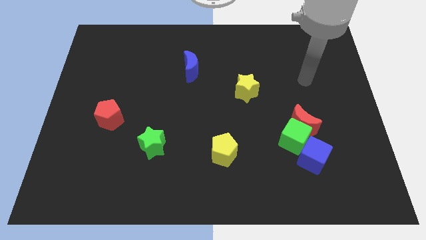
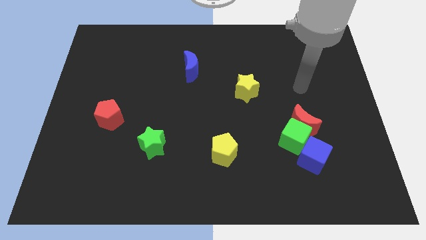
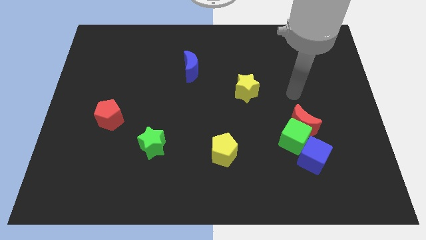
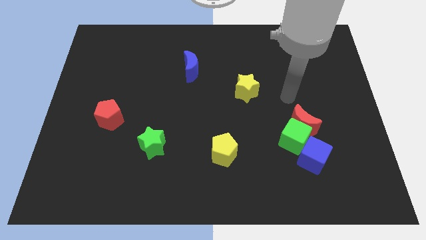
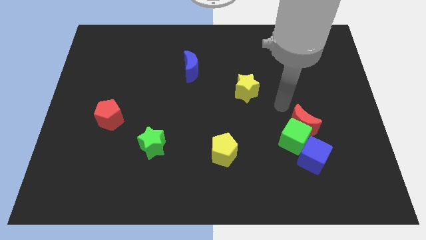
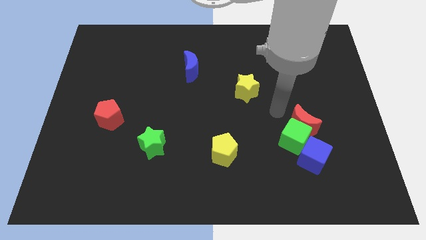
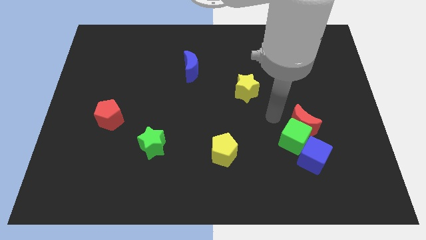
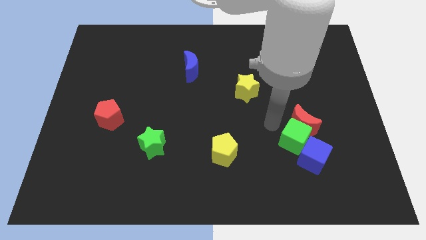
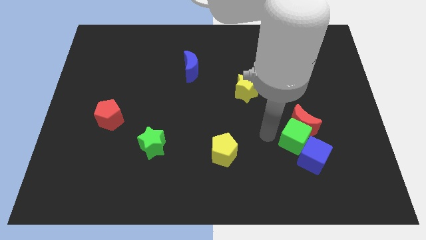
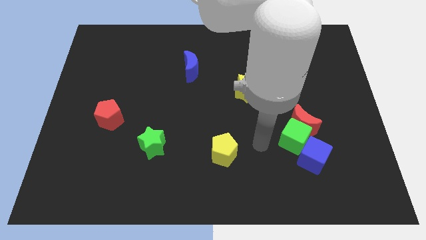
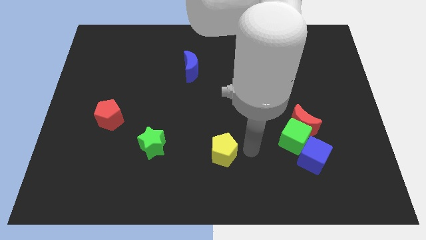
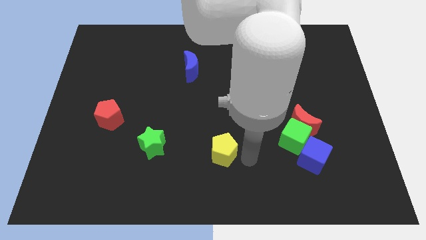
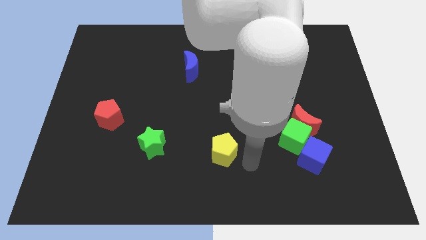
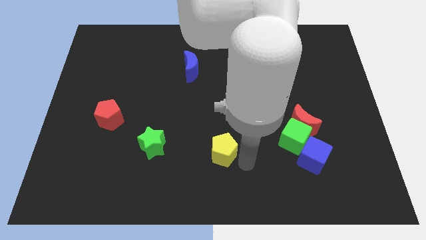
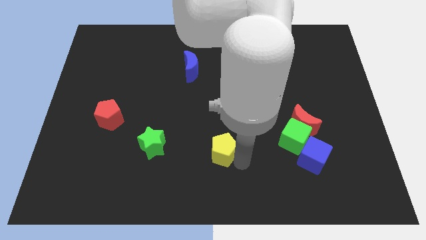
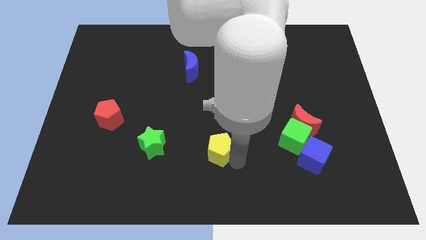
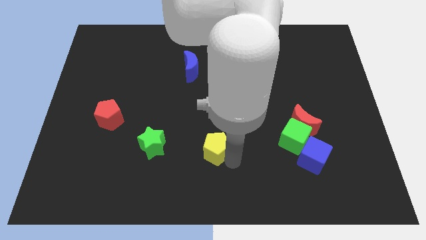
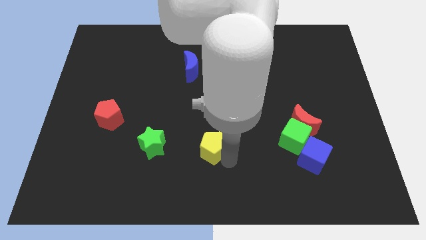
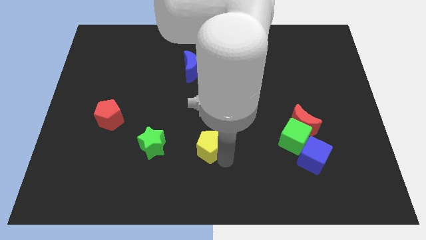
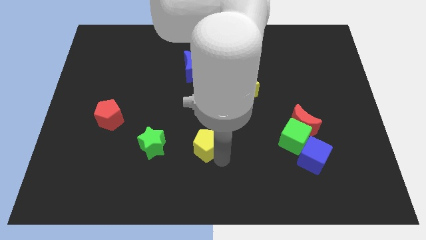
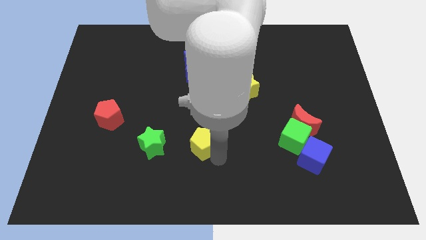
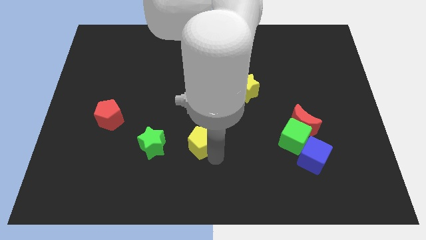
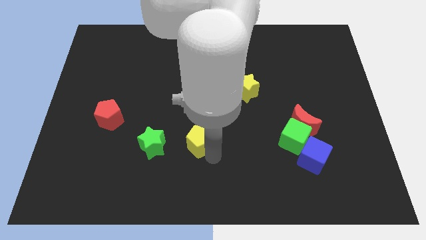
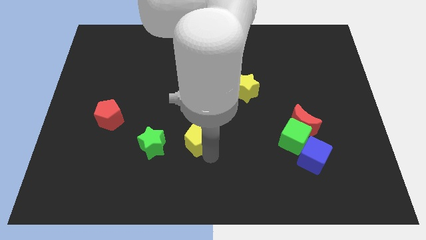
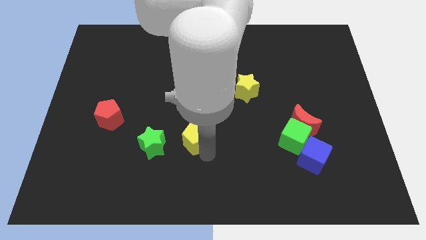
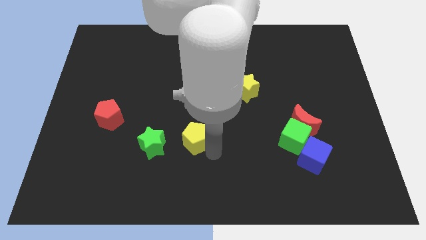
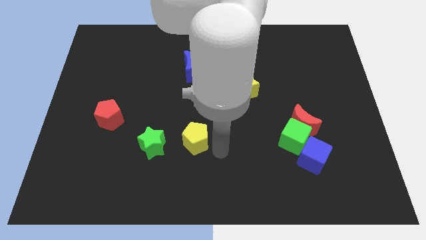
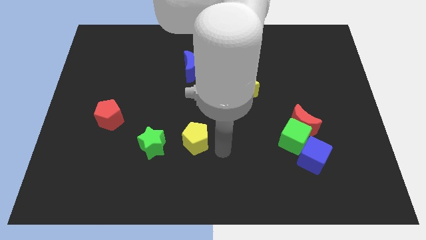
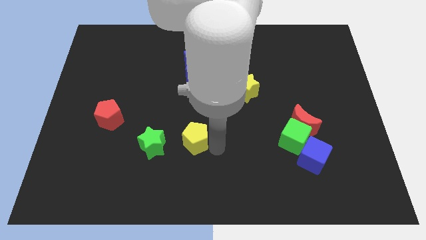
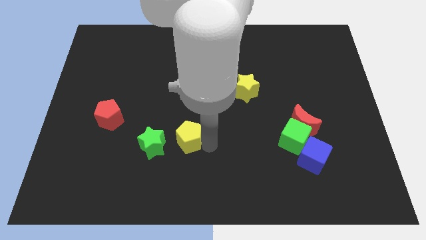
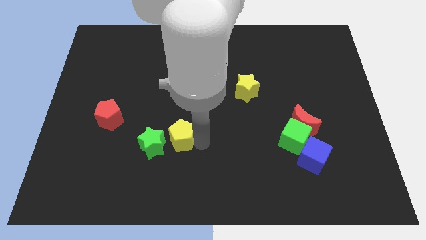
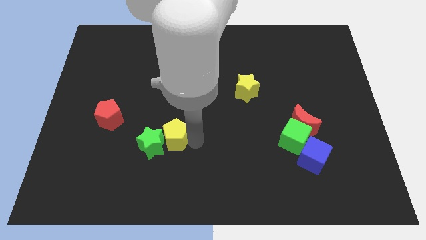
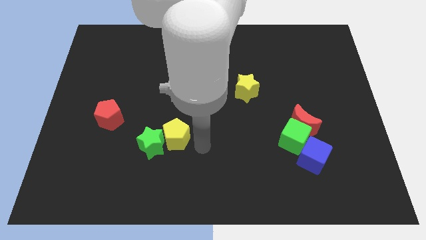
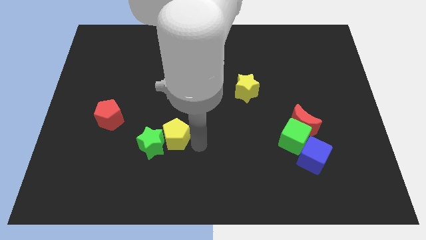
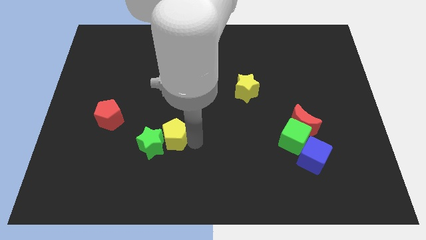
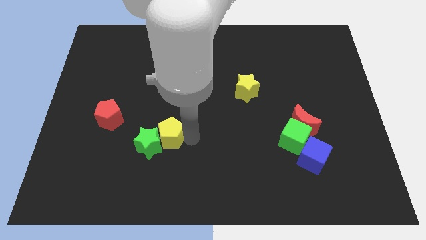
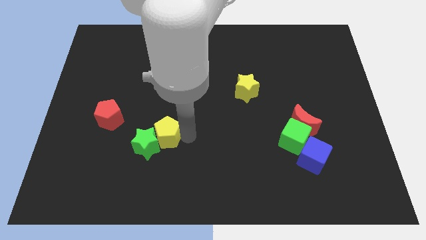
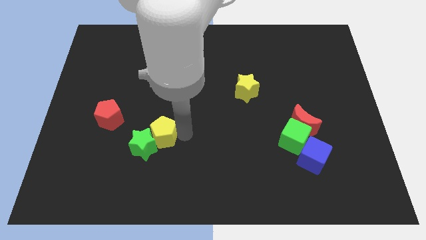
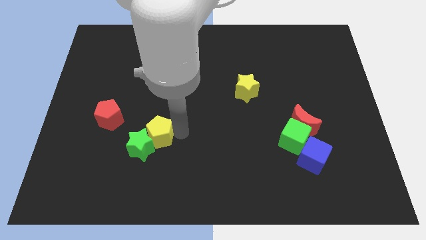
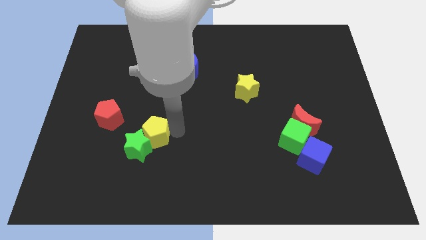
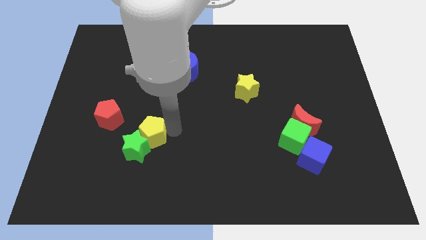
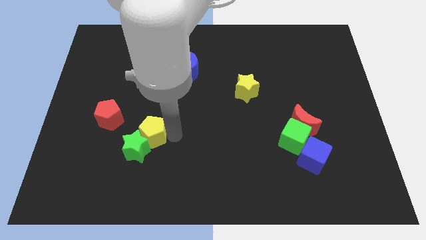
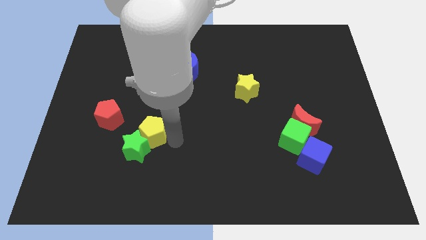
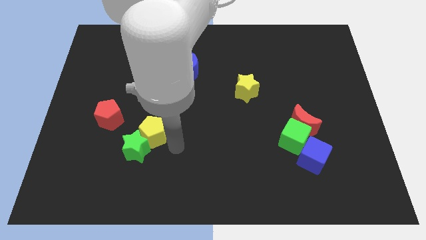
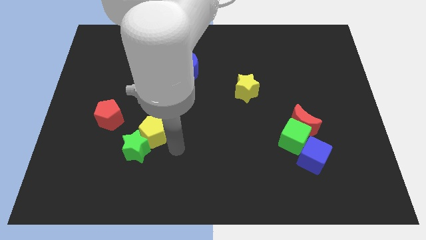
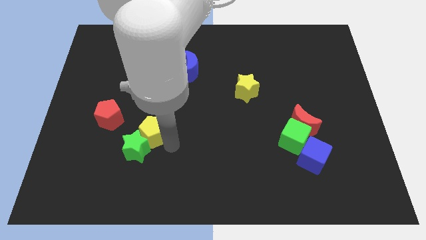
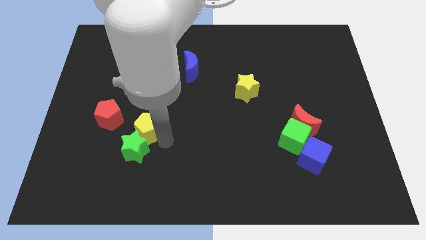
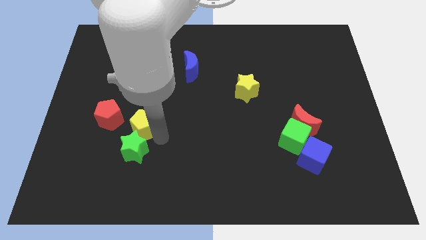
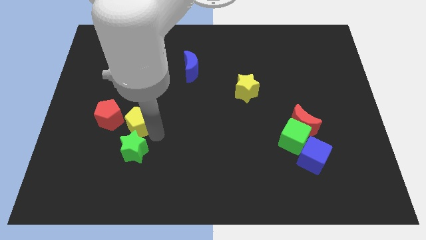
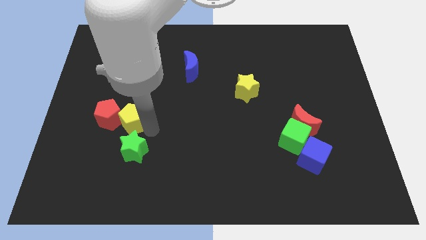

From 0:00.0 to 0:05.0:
slide the yellow pentagon close to the red pentagon

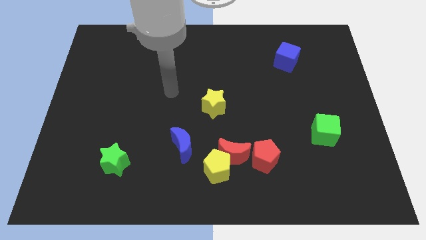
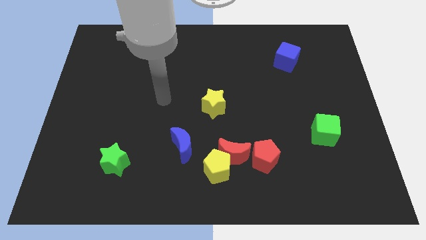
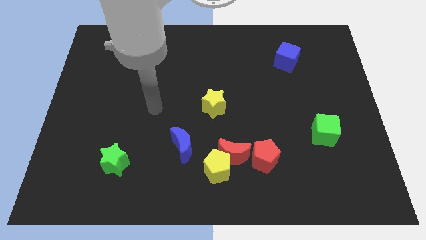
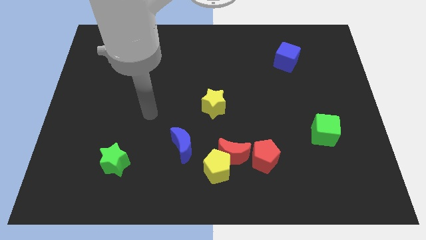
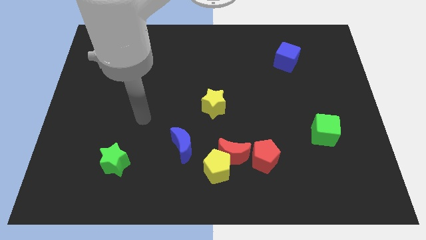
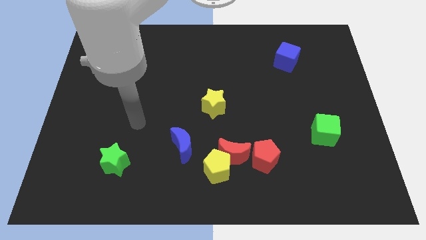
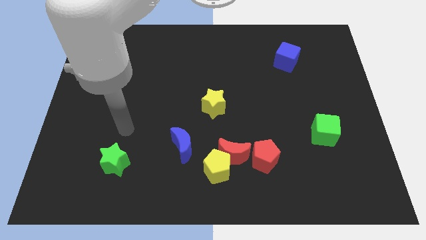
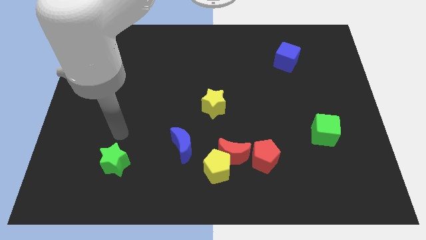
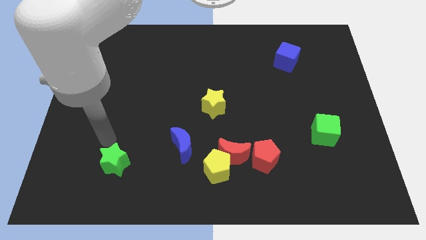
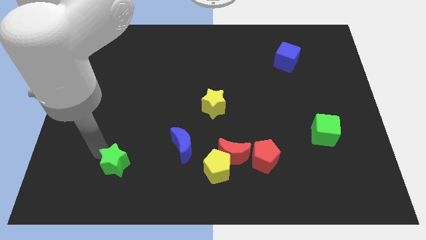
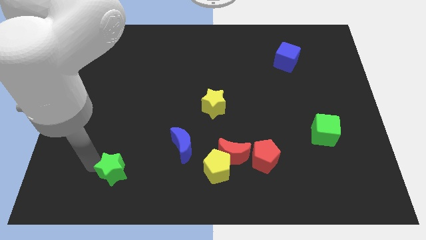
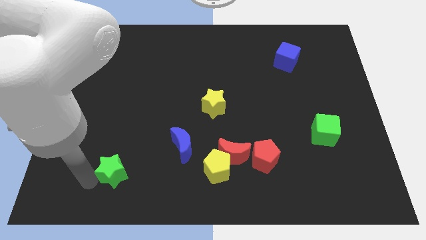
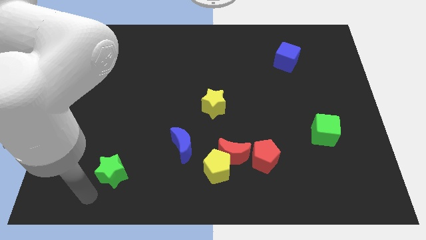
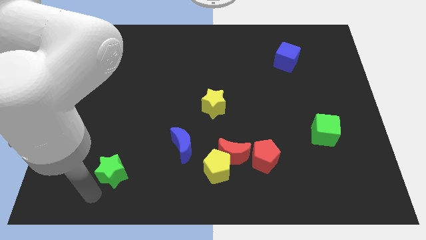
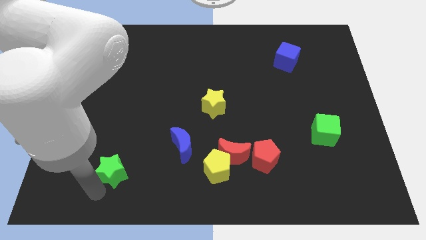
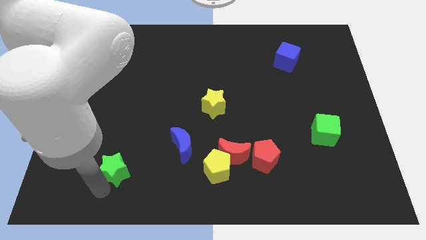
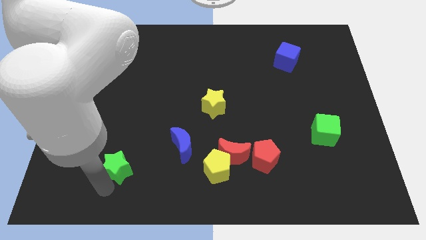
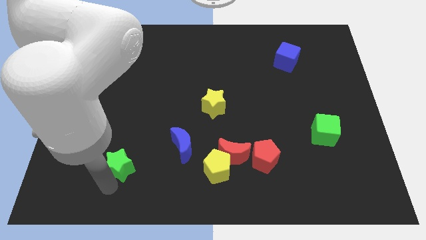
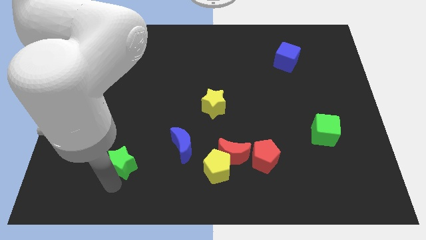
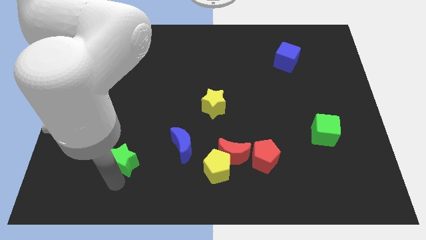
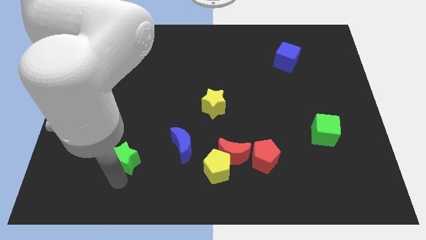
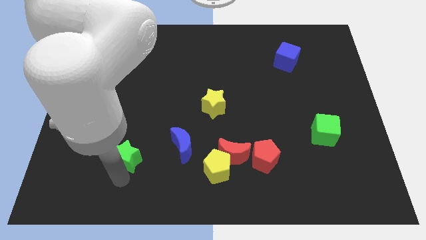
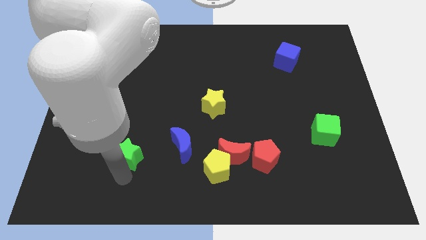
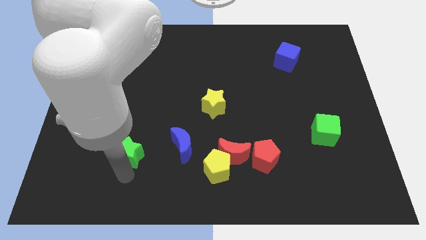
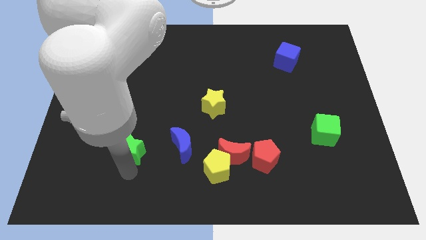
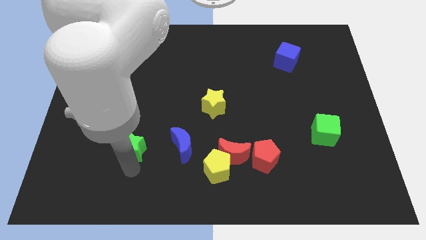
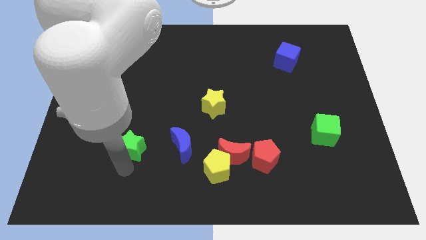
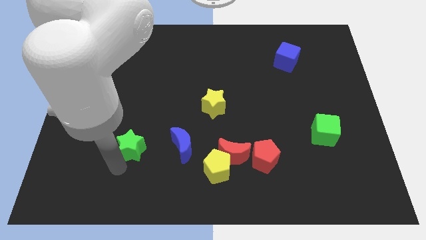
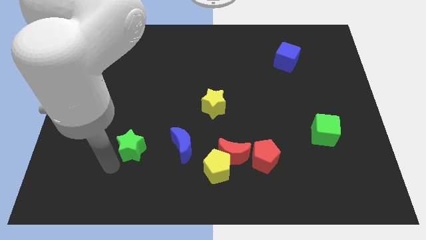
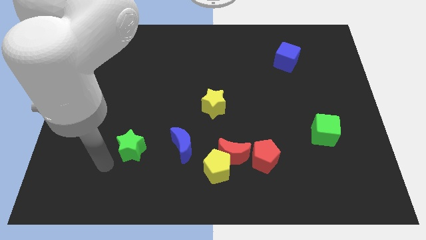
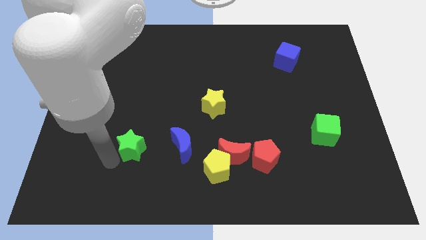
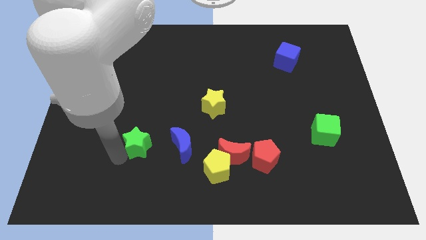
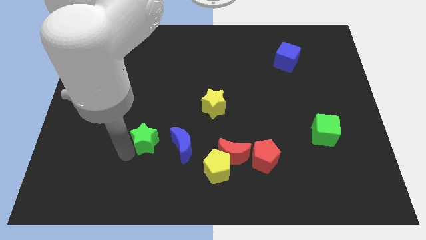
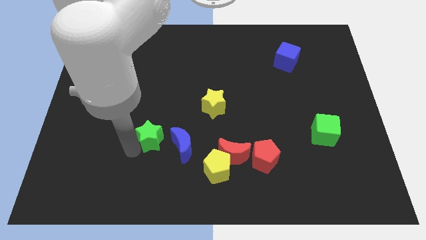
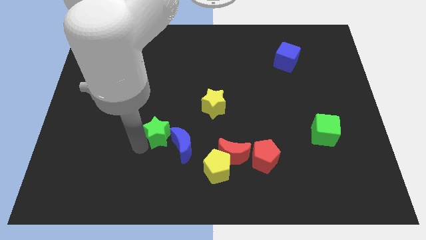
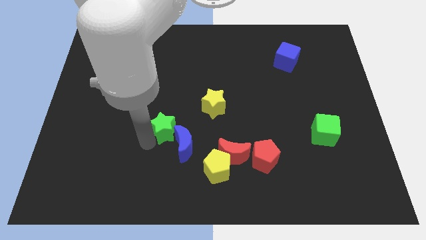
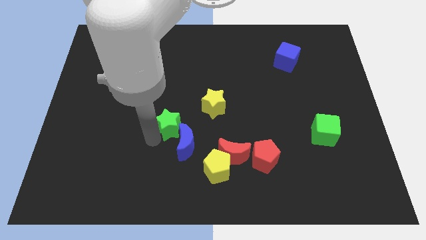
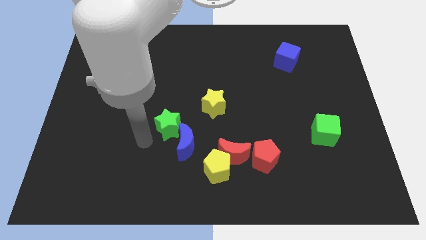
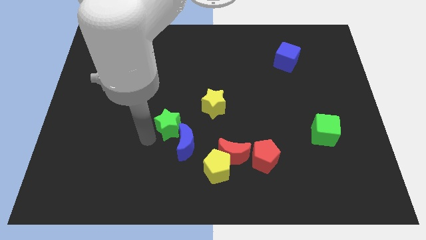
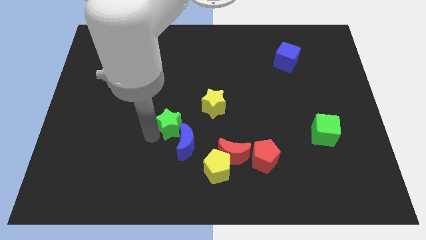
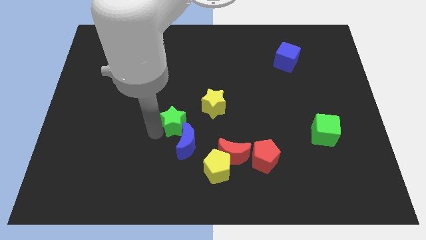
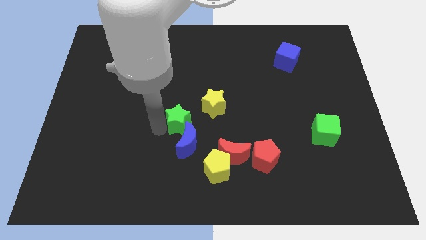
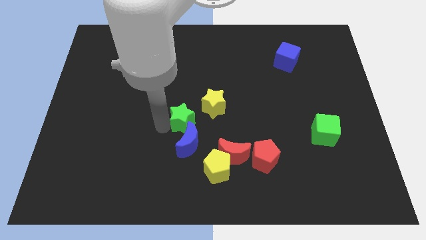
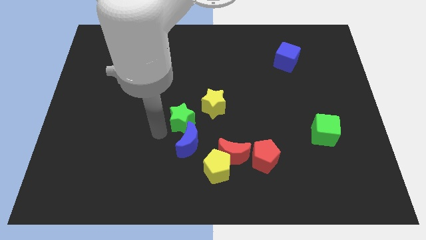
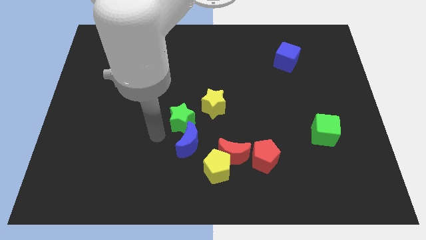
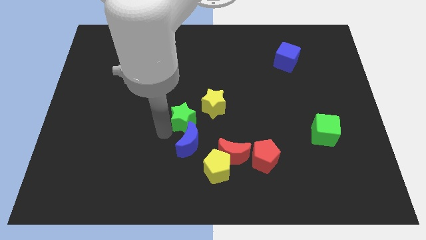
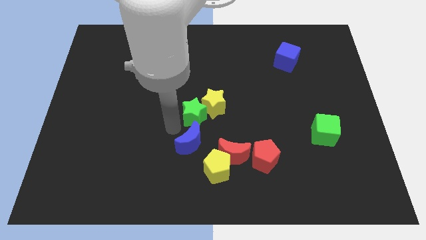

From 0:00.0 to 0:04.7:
push the green star towards the yellow star
